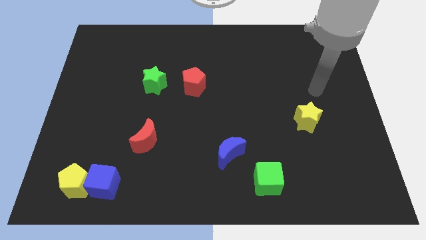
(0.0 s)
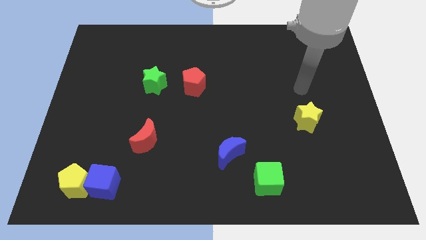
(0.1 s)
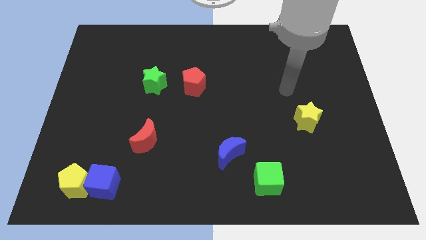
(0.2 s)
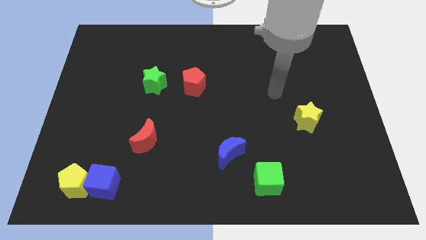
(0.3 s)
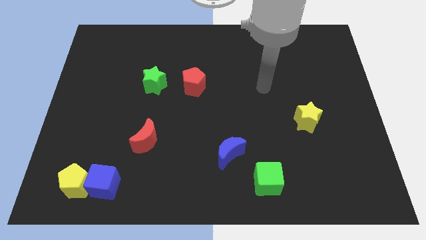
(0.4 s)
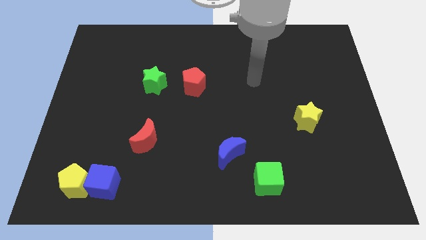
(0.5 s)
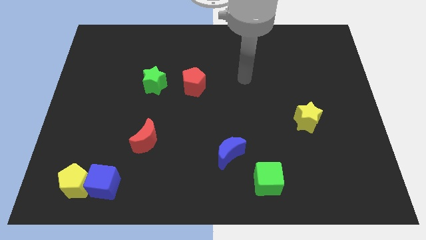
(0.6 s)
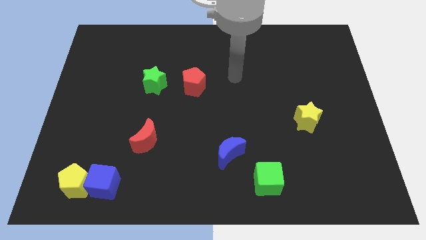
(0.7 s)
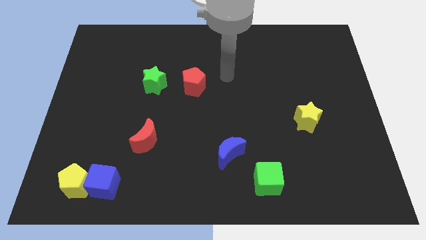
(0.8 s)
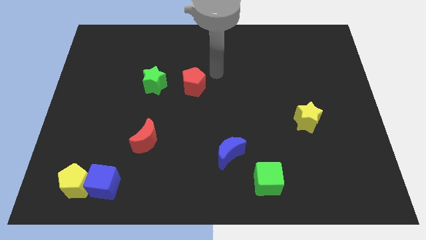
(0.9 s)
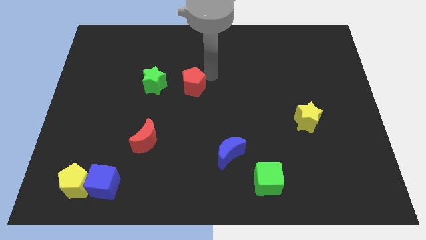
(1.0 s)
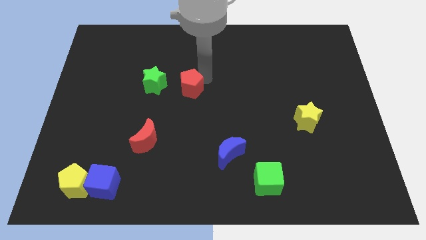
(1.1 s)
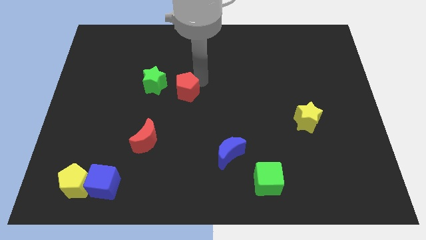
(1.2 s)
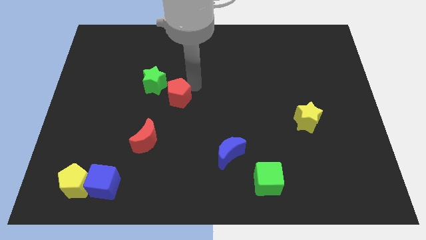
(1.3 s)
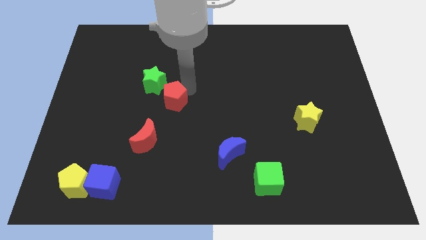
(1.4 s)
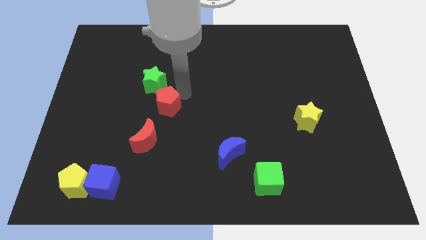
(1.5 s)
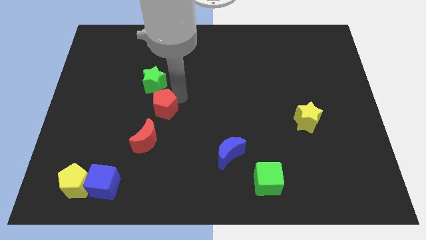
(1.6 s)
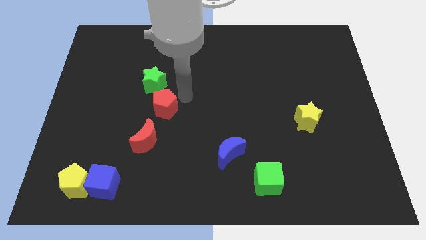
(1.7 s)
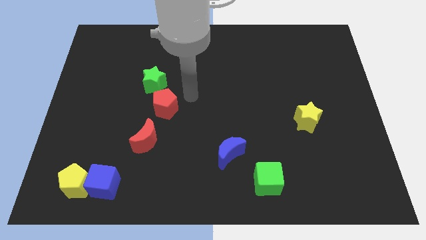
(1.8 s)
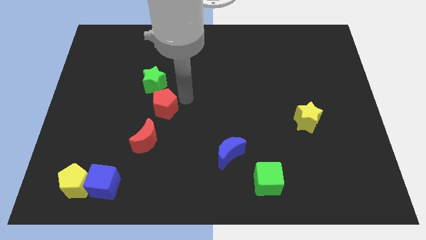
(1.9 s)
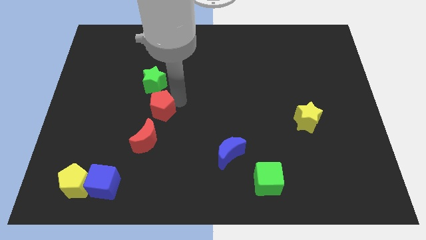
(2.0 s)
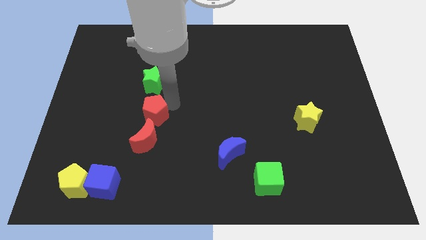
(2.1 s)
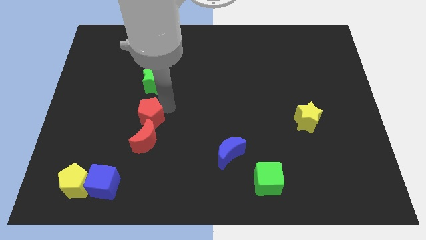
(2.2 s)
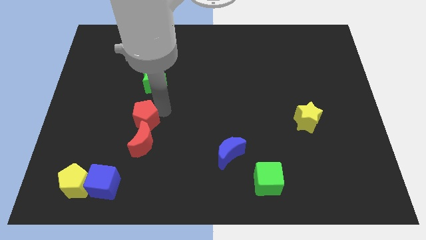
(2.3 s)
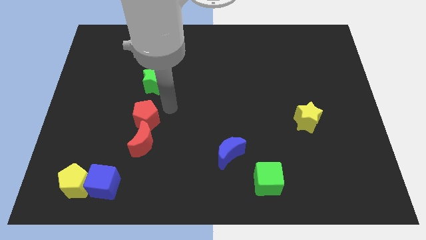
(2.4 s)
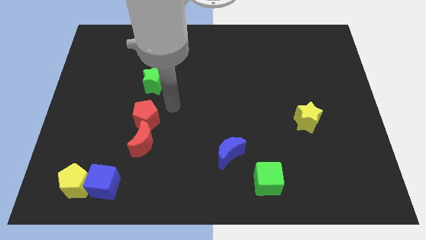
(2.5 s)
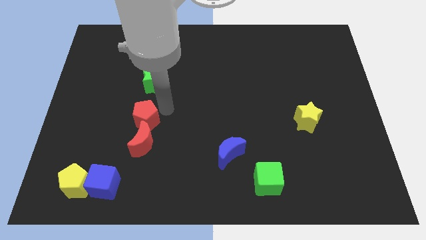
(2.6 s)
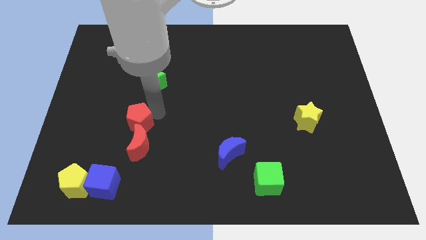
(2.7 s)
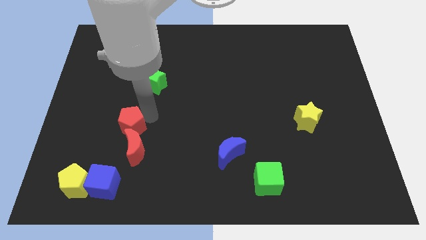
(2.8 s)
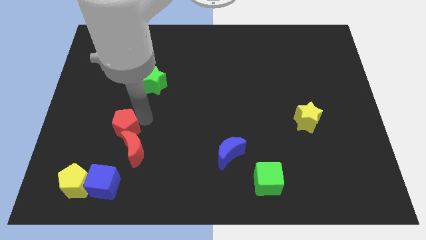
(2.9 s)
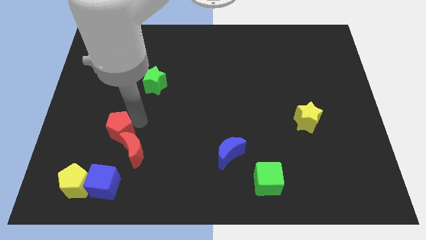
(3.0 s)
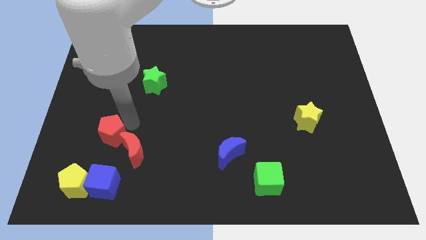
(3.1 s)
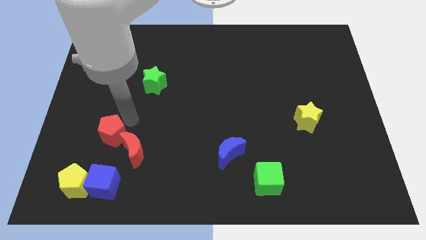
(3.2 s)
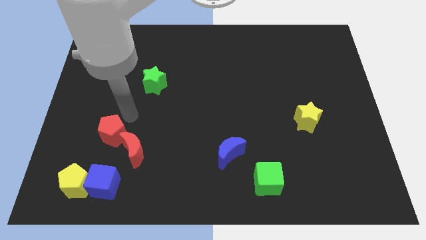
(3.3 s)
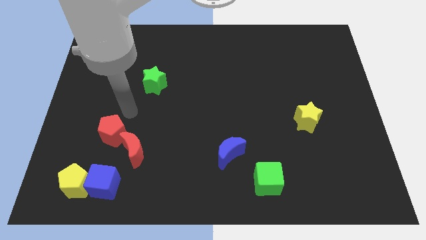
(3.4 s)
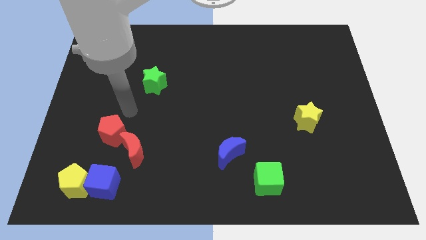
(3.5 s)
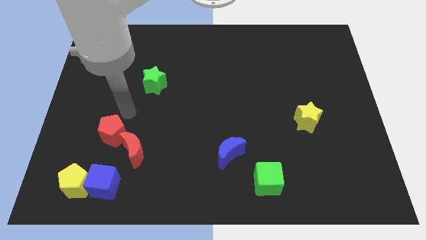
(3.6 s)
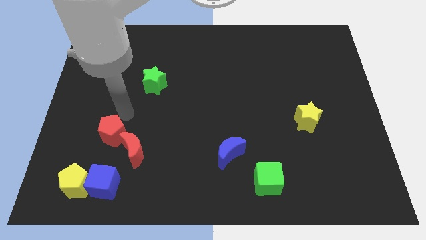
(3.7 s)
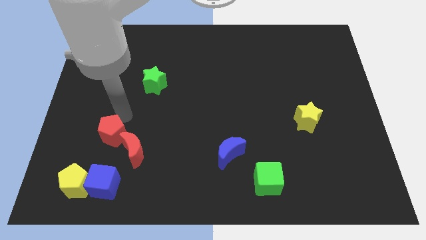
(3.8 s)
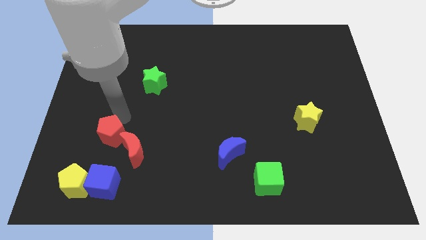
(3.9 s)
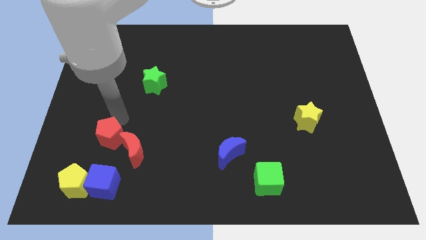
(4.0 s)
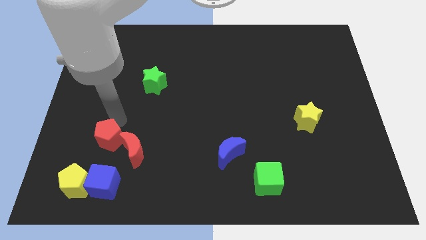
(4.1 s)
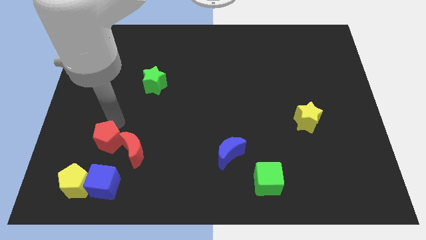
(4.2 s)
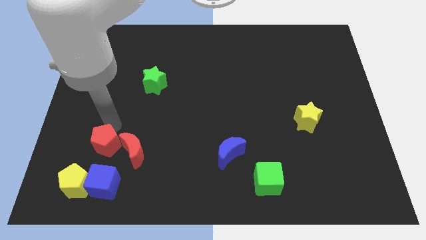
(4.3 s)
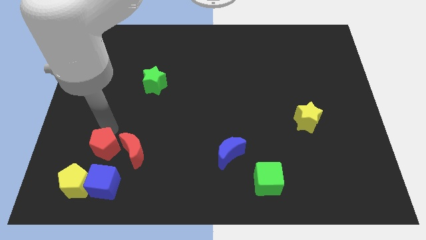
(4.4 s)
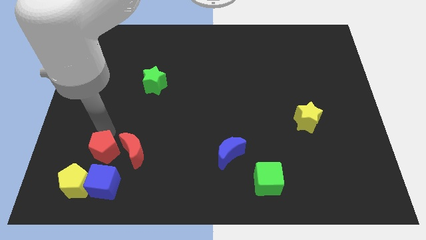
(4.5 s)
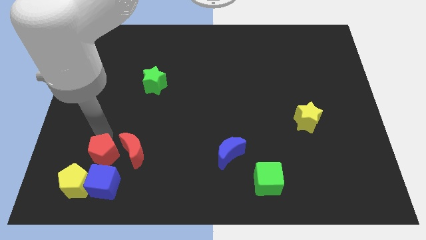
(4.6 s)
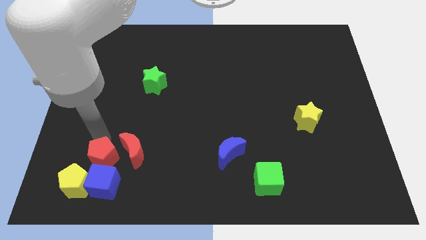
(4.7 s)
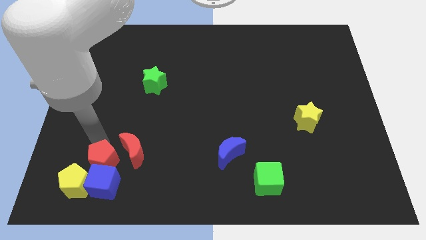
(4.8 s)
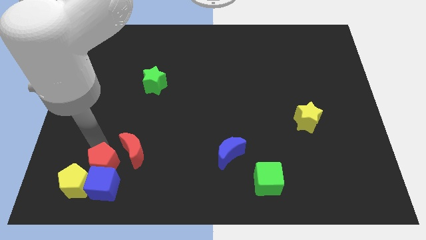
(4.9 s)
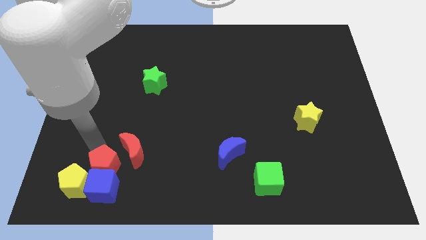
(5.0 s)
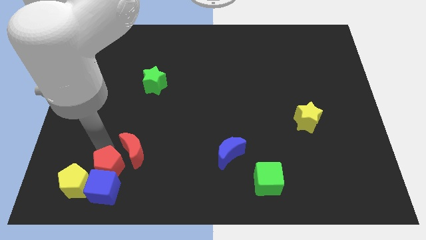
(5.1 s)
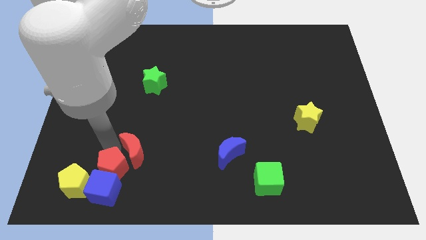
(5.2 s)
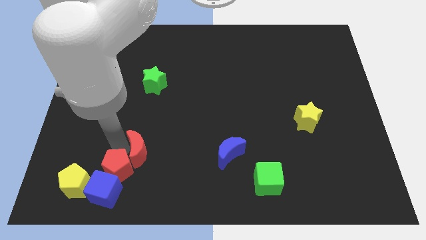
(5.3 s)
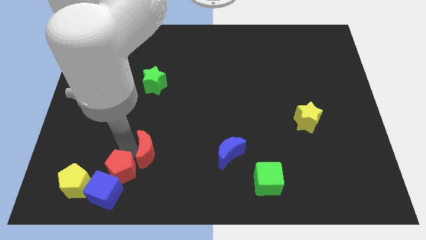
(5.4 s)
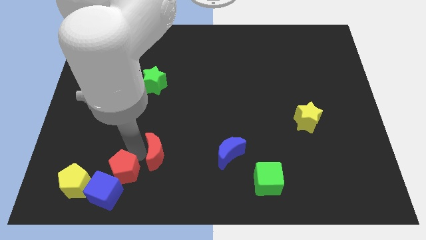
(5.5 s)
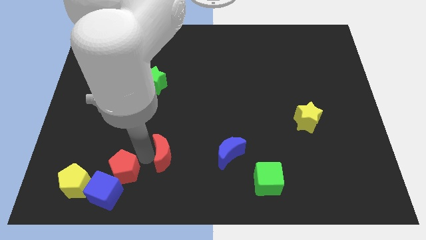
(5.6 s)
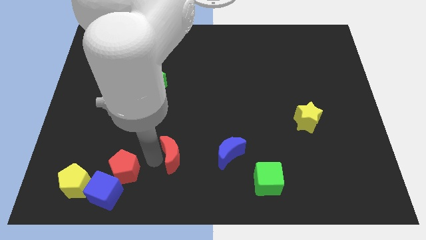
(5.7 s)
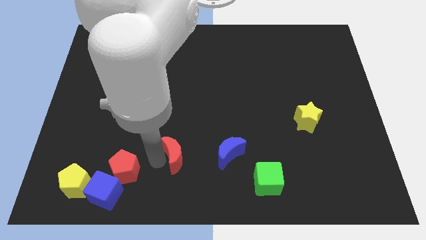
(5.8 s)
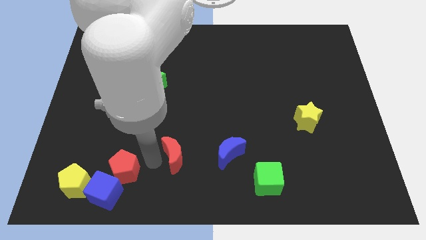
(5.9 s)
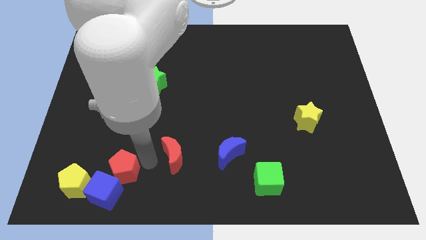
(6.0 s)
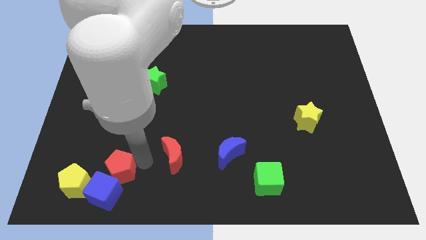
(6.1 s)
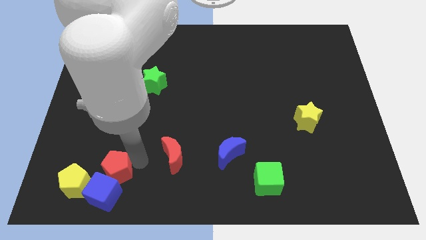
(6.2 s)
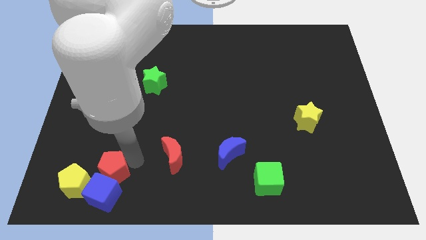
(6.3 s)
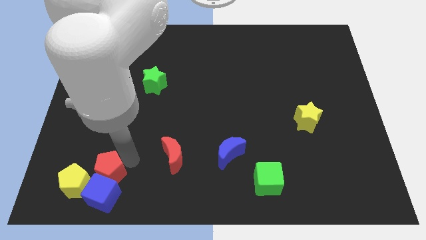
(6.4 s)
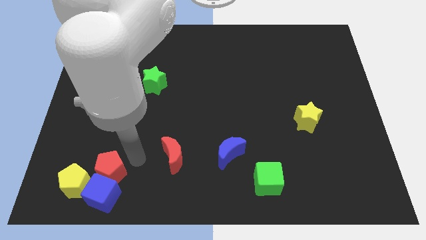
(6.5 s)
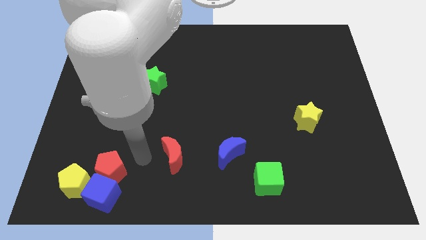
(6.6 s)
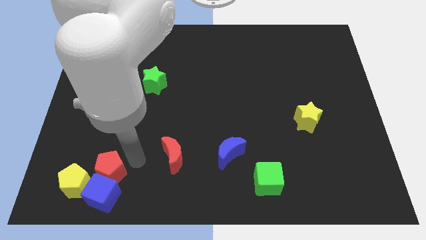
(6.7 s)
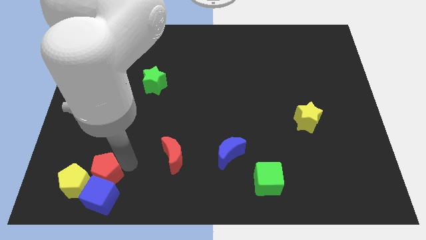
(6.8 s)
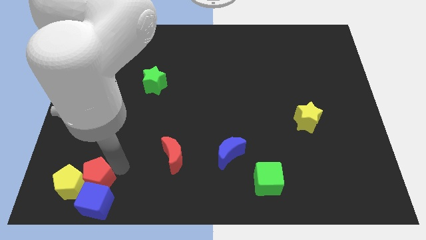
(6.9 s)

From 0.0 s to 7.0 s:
slide the red pentagon to the yellow pentagon

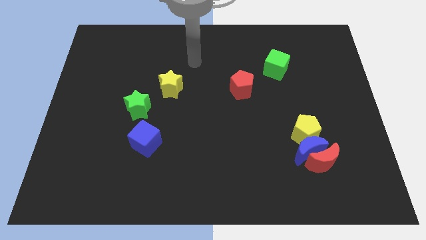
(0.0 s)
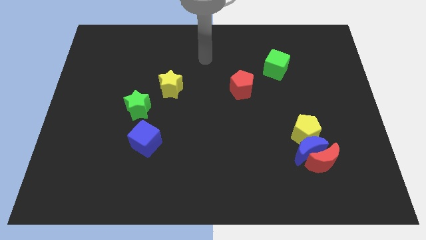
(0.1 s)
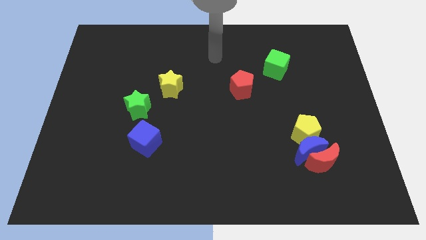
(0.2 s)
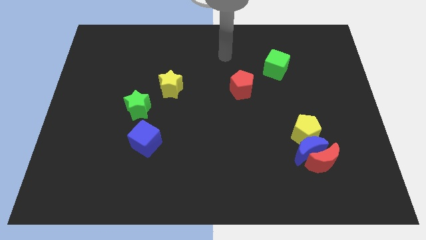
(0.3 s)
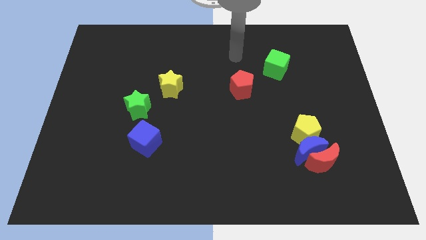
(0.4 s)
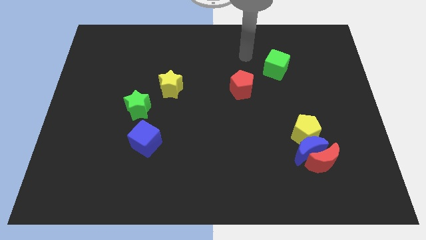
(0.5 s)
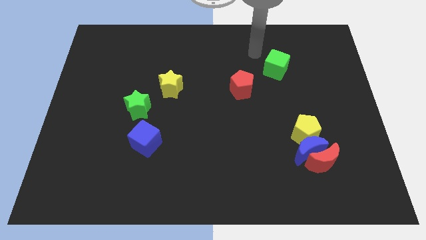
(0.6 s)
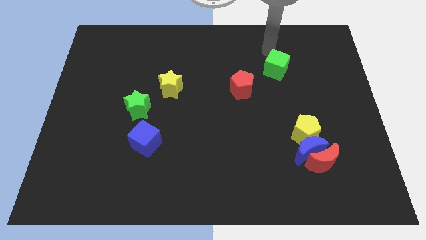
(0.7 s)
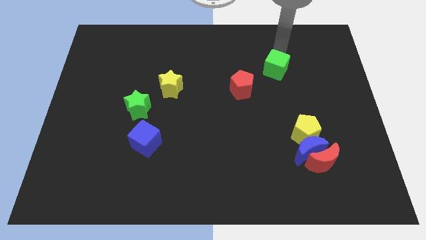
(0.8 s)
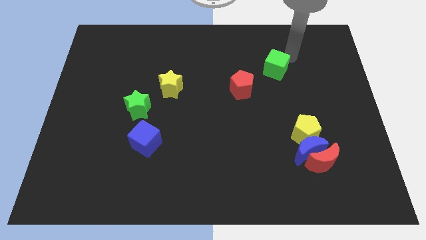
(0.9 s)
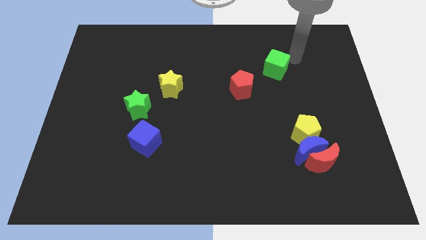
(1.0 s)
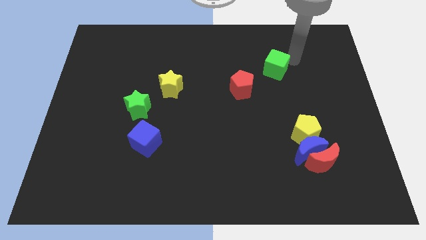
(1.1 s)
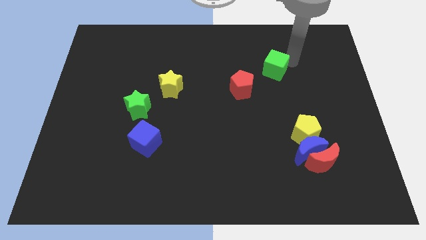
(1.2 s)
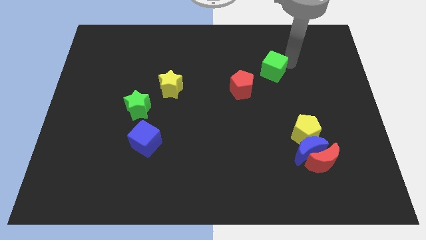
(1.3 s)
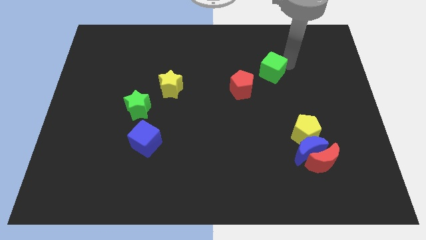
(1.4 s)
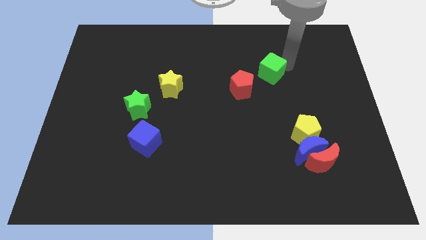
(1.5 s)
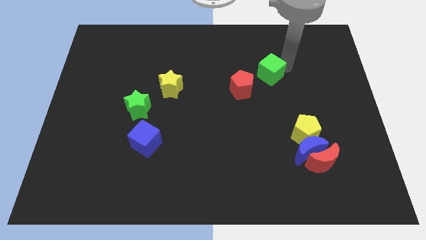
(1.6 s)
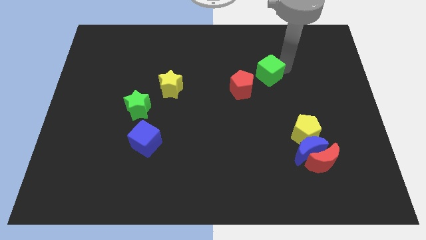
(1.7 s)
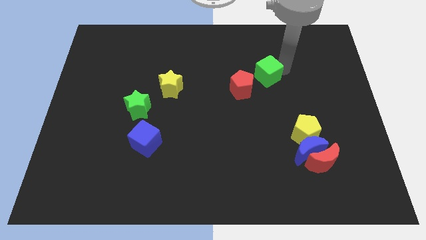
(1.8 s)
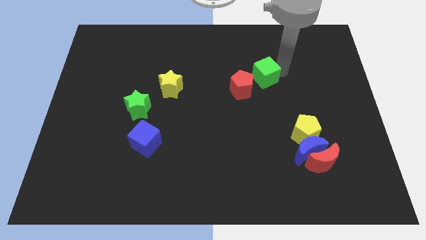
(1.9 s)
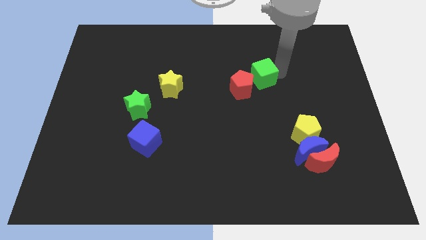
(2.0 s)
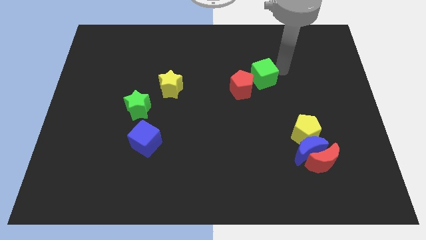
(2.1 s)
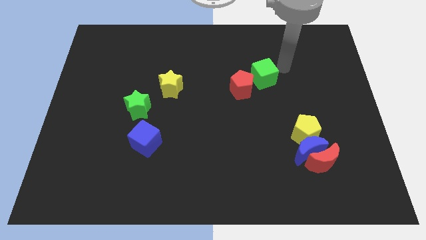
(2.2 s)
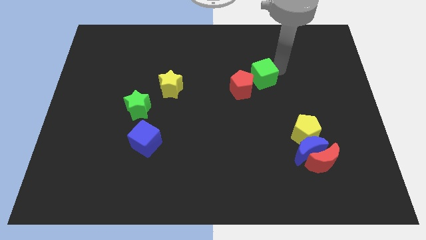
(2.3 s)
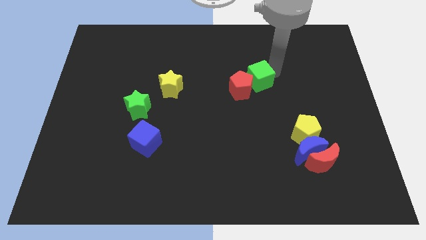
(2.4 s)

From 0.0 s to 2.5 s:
move the green cube close to the red pentagon
